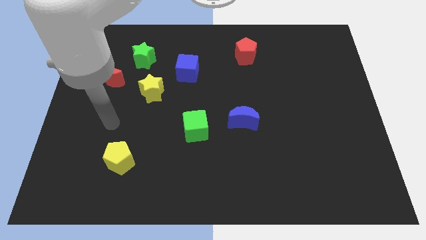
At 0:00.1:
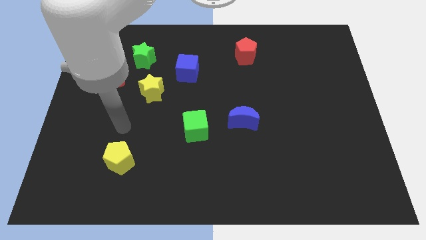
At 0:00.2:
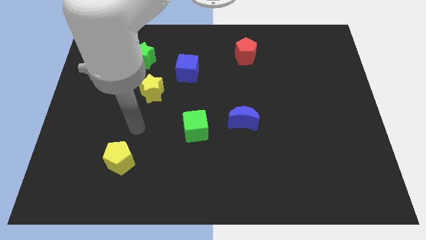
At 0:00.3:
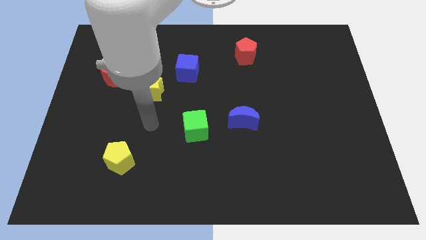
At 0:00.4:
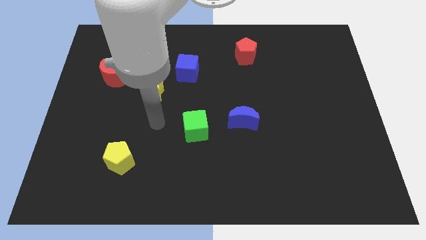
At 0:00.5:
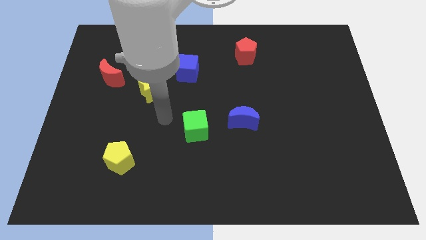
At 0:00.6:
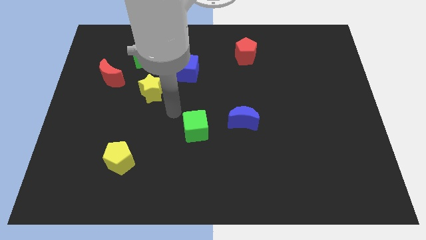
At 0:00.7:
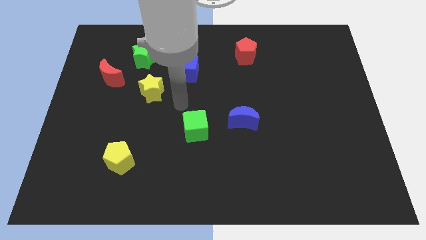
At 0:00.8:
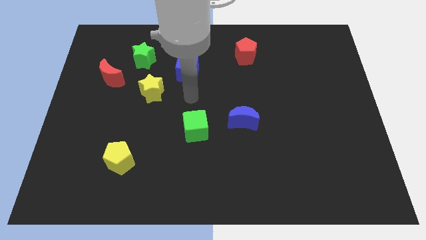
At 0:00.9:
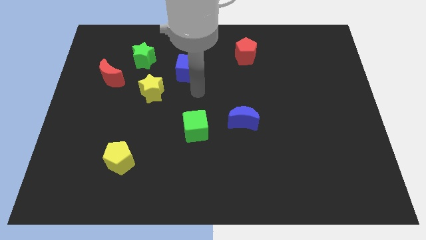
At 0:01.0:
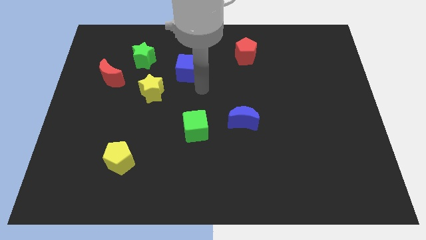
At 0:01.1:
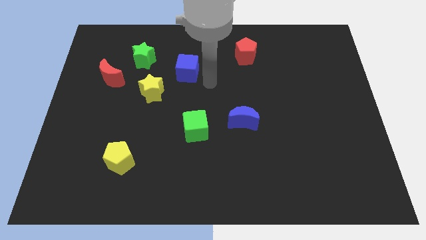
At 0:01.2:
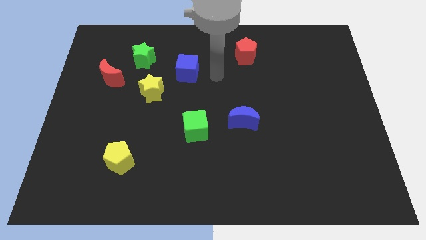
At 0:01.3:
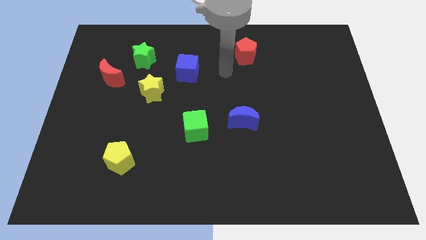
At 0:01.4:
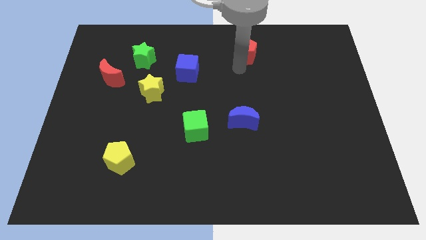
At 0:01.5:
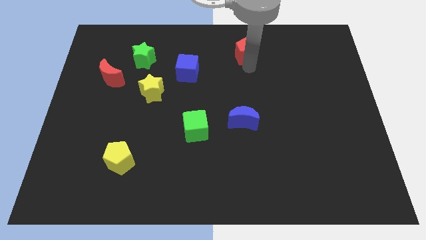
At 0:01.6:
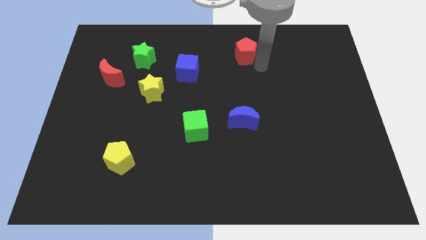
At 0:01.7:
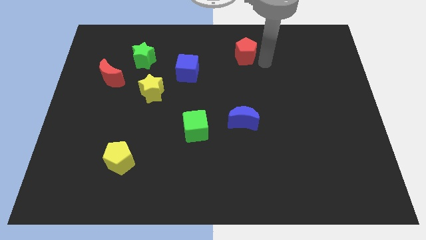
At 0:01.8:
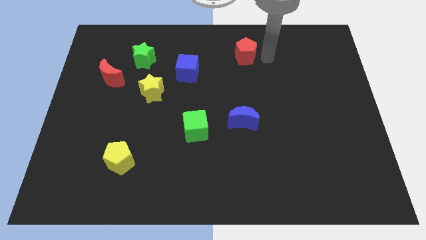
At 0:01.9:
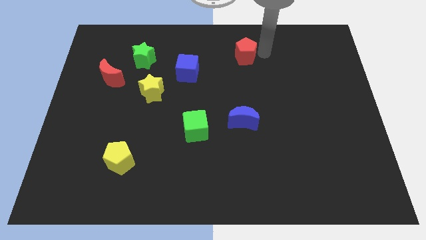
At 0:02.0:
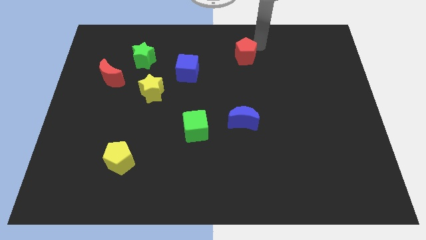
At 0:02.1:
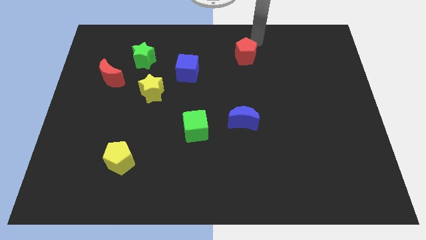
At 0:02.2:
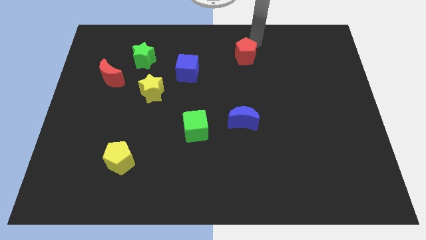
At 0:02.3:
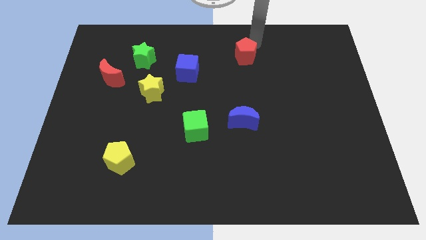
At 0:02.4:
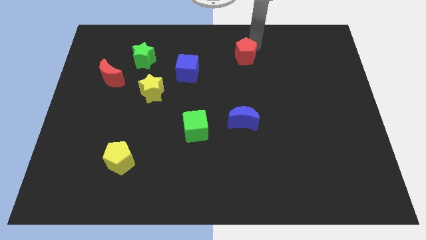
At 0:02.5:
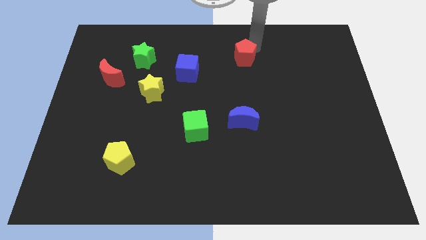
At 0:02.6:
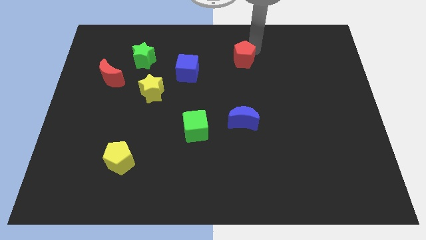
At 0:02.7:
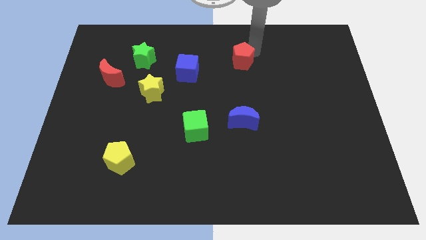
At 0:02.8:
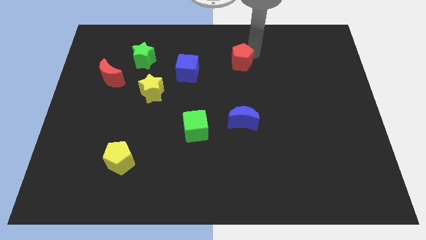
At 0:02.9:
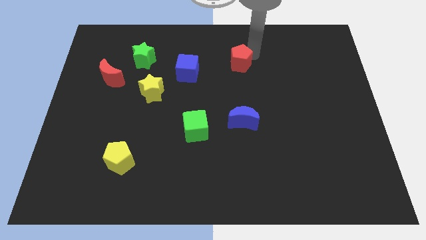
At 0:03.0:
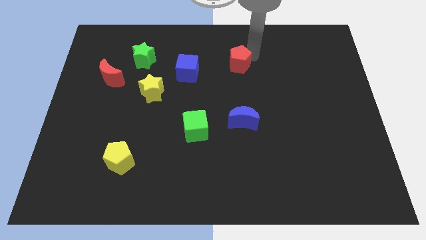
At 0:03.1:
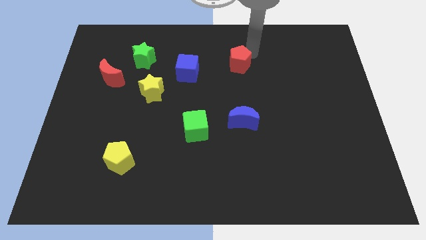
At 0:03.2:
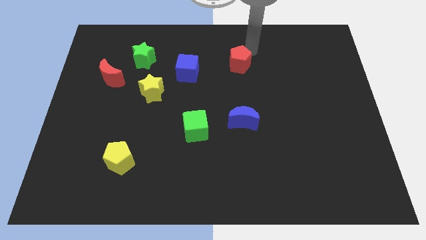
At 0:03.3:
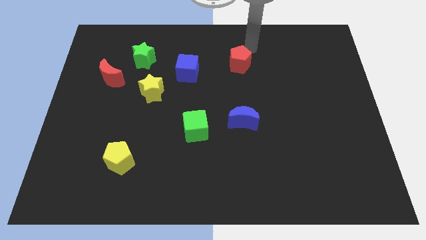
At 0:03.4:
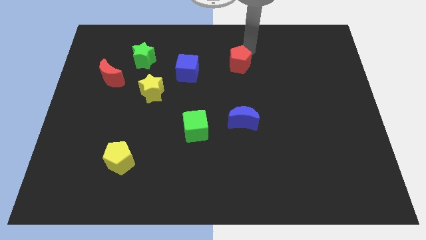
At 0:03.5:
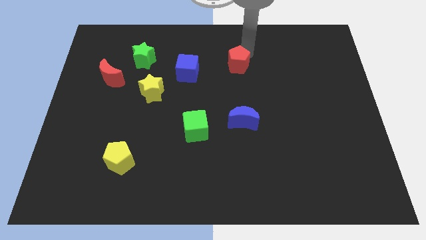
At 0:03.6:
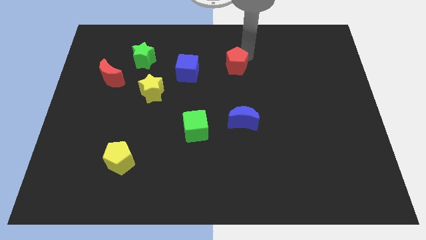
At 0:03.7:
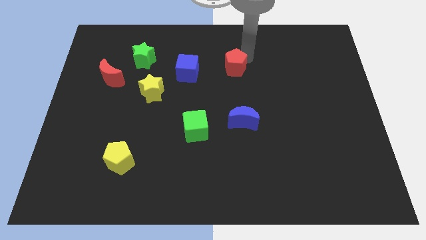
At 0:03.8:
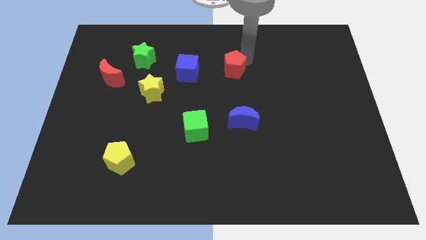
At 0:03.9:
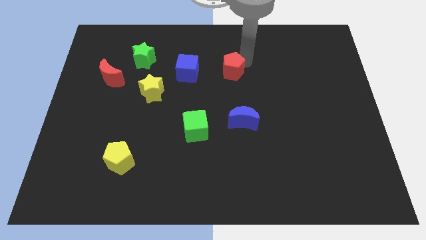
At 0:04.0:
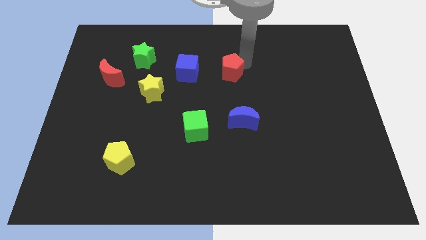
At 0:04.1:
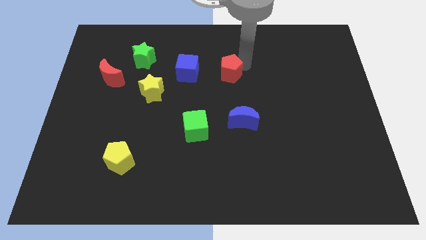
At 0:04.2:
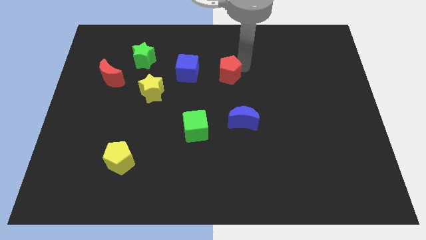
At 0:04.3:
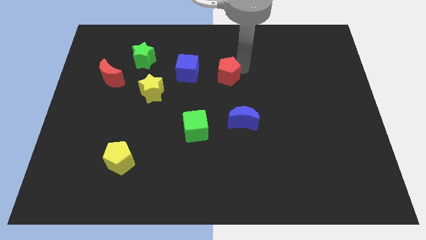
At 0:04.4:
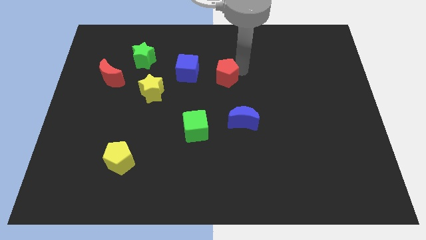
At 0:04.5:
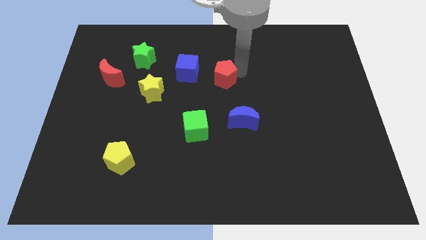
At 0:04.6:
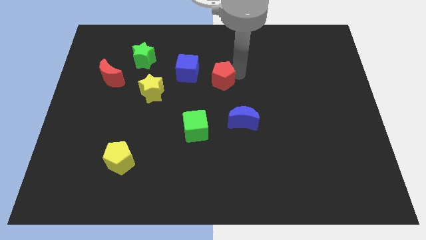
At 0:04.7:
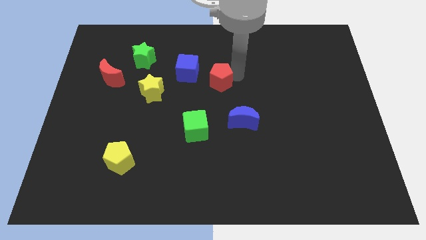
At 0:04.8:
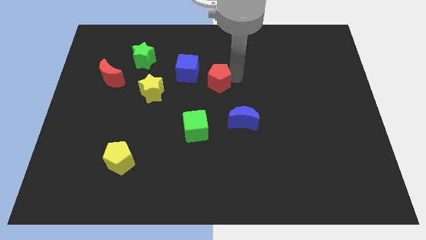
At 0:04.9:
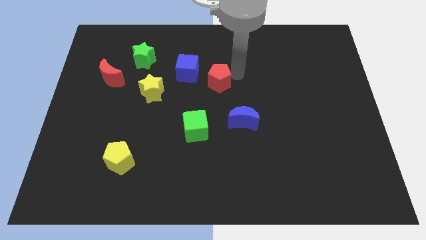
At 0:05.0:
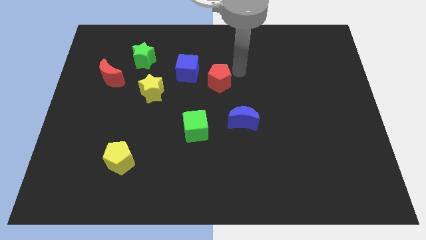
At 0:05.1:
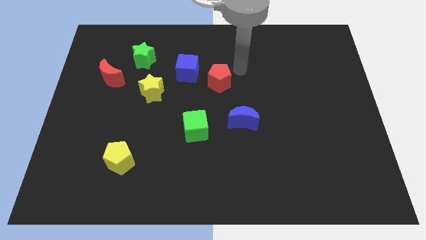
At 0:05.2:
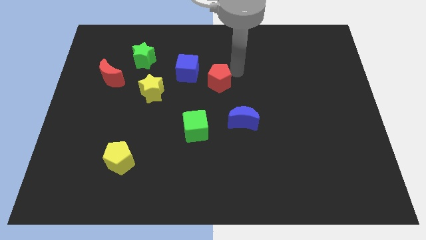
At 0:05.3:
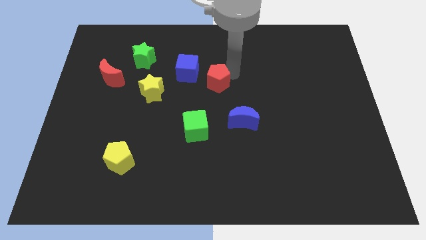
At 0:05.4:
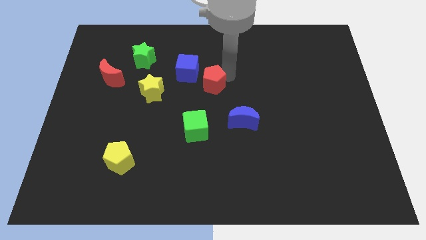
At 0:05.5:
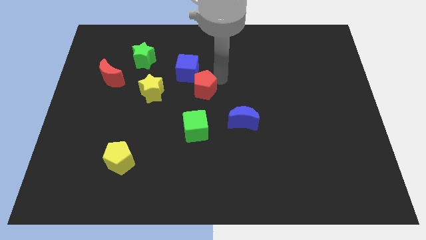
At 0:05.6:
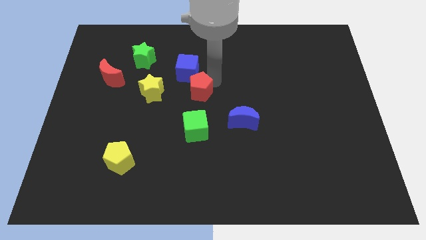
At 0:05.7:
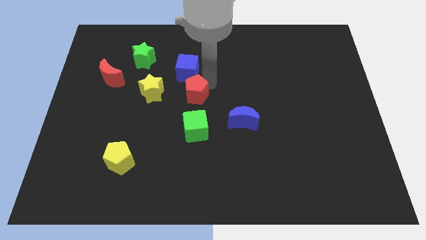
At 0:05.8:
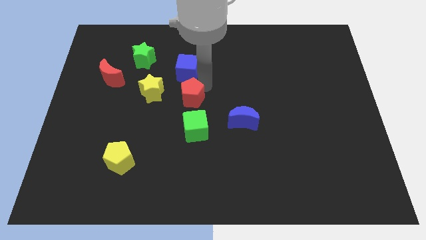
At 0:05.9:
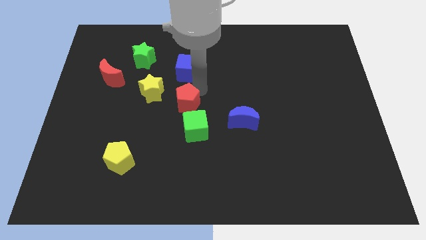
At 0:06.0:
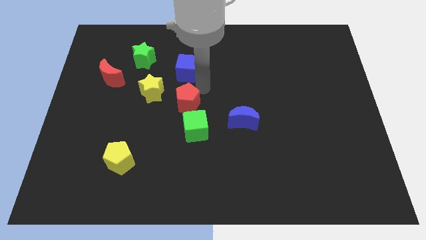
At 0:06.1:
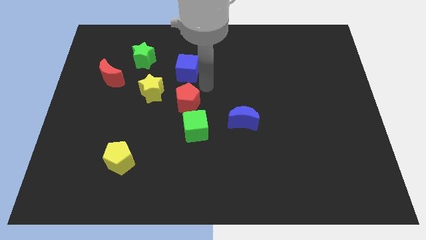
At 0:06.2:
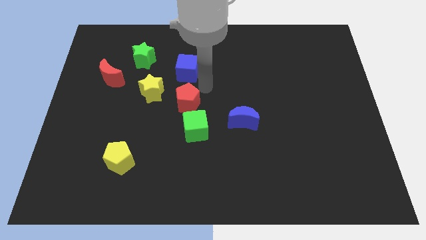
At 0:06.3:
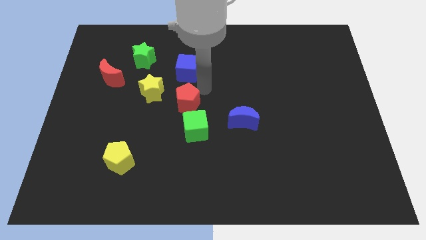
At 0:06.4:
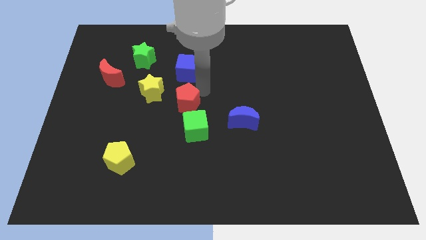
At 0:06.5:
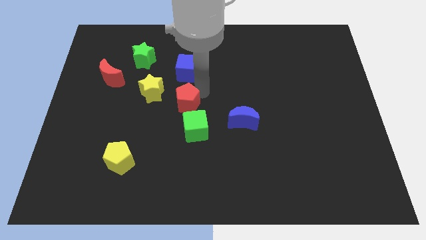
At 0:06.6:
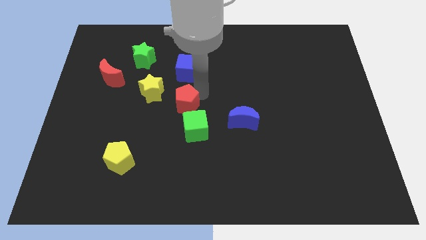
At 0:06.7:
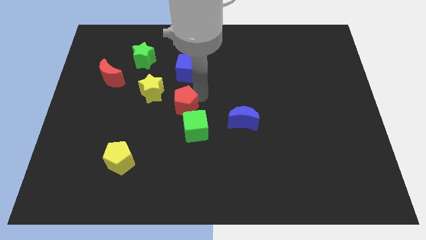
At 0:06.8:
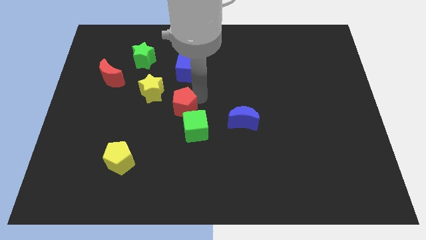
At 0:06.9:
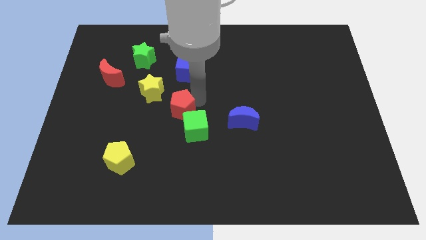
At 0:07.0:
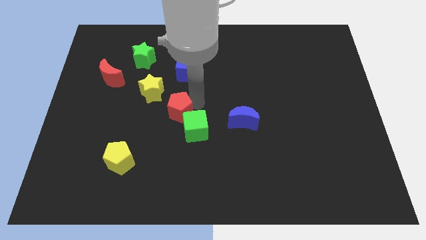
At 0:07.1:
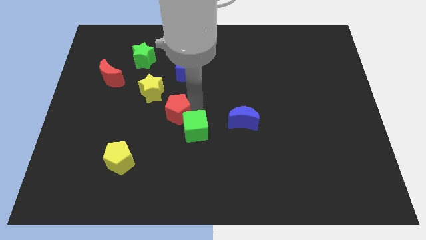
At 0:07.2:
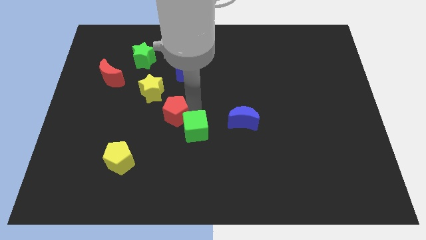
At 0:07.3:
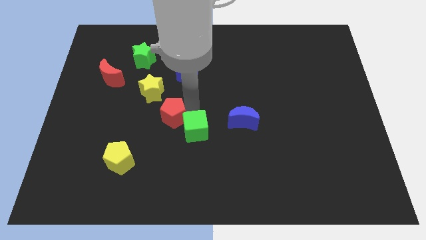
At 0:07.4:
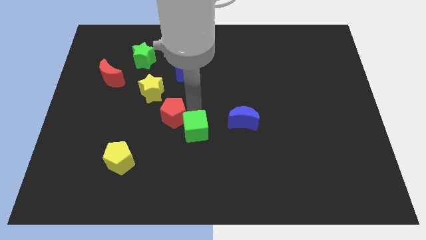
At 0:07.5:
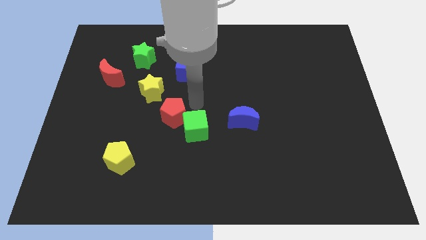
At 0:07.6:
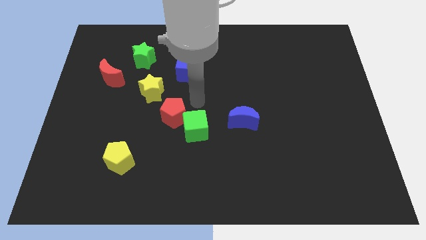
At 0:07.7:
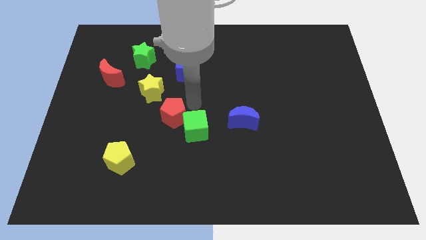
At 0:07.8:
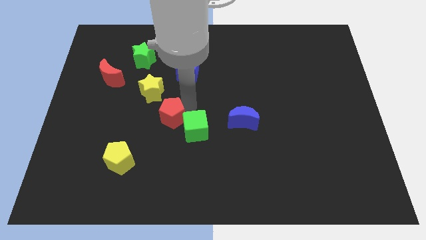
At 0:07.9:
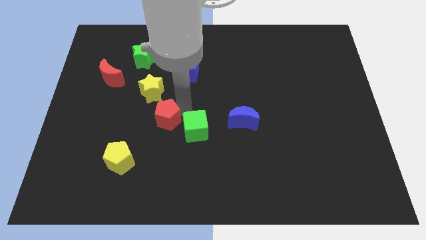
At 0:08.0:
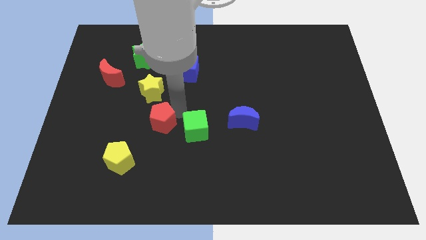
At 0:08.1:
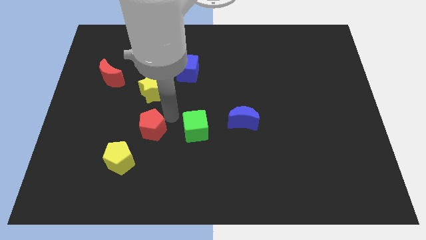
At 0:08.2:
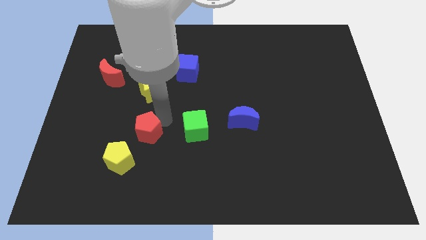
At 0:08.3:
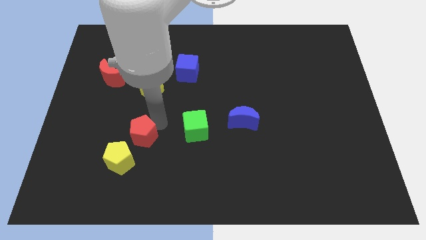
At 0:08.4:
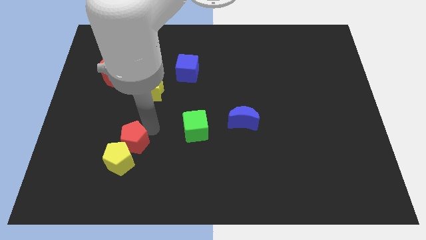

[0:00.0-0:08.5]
move the red pentagon next to the yellow pentagon
